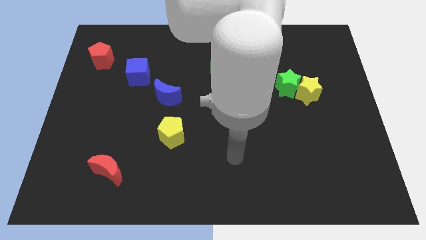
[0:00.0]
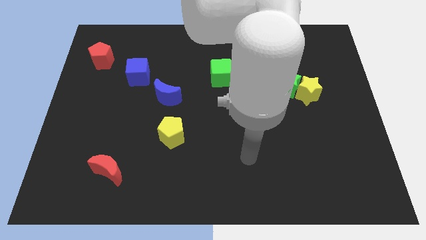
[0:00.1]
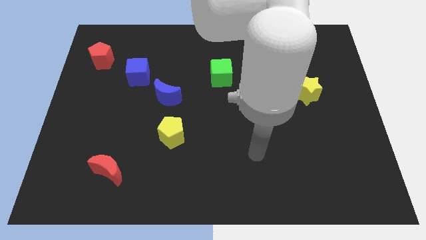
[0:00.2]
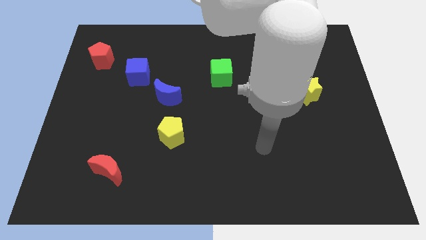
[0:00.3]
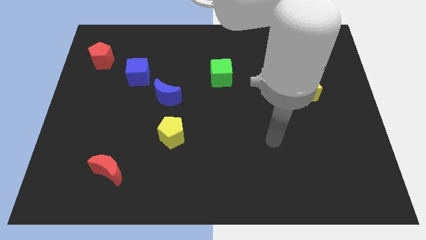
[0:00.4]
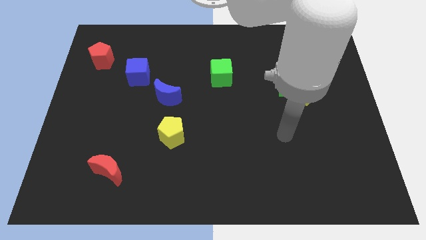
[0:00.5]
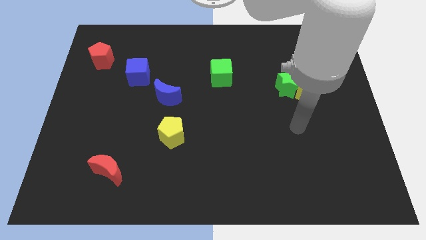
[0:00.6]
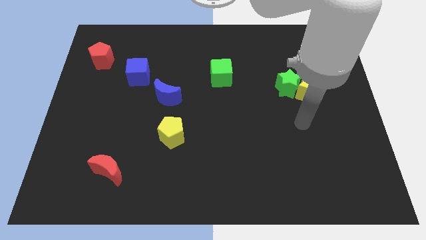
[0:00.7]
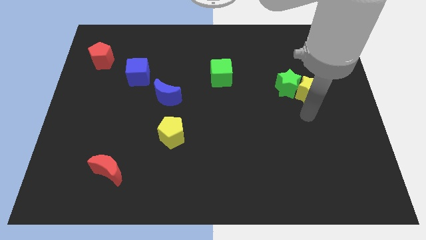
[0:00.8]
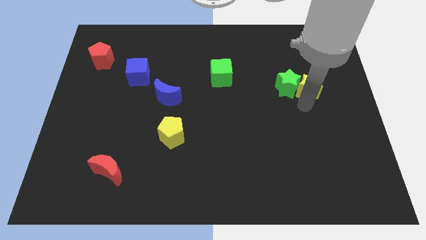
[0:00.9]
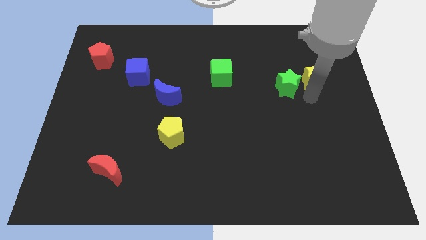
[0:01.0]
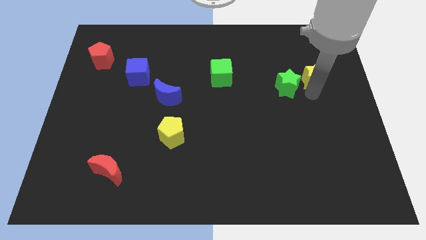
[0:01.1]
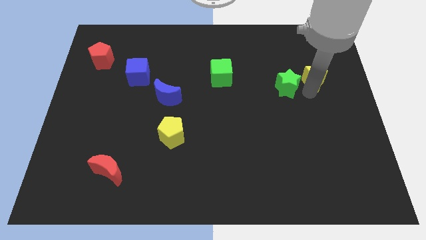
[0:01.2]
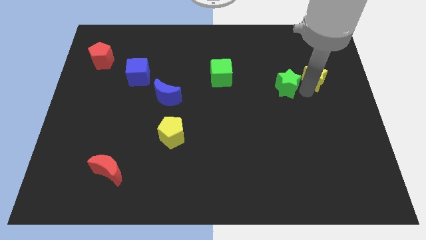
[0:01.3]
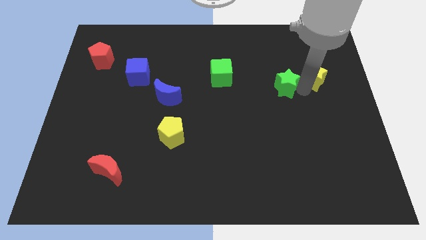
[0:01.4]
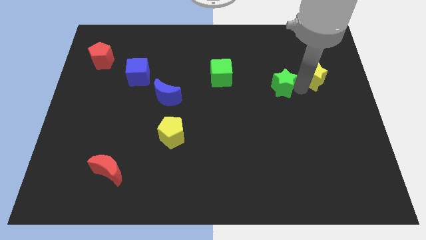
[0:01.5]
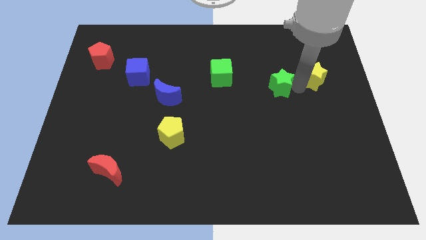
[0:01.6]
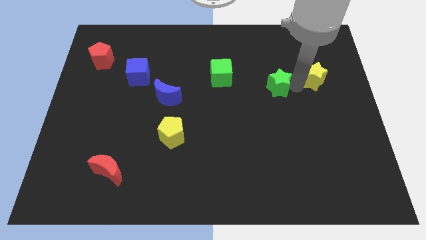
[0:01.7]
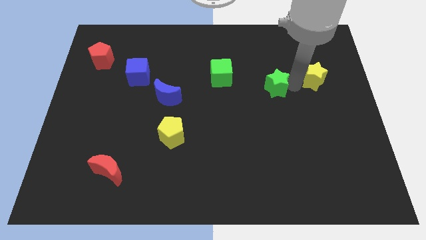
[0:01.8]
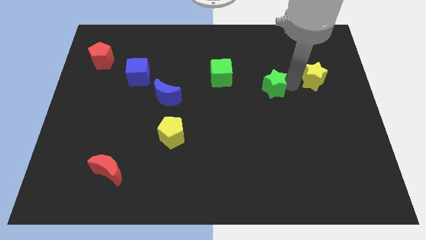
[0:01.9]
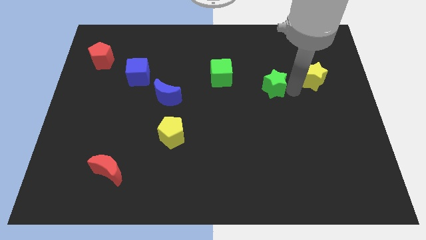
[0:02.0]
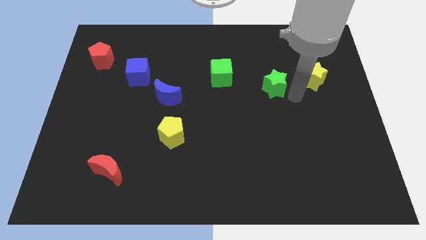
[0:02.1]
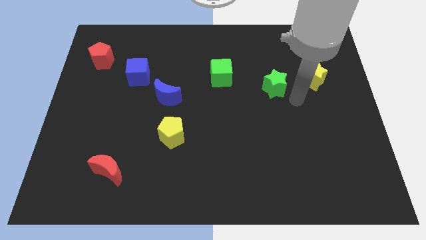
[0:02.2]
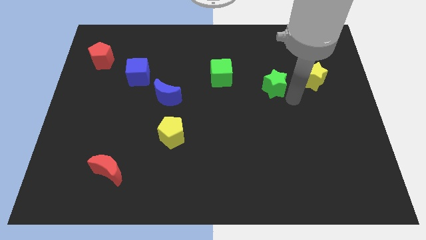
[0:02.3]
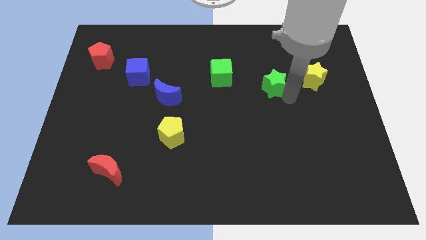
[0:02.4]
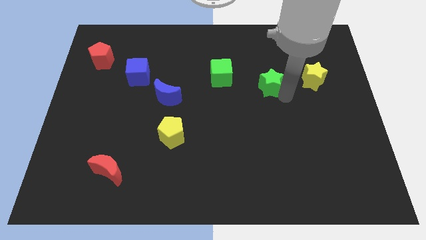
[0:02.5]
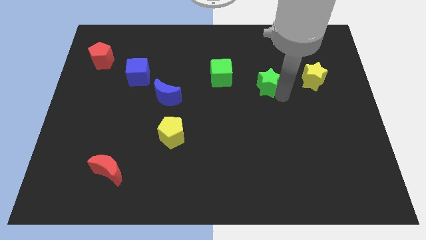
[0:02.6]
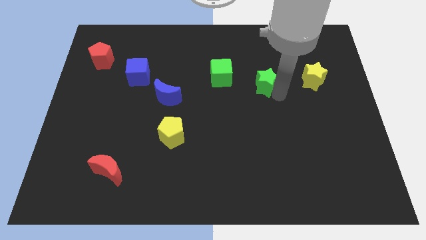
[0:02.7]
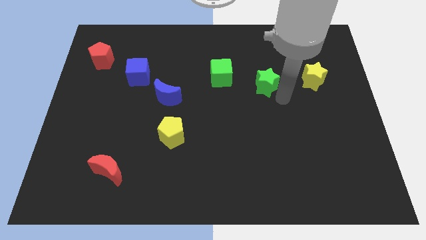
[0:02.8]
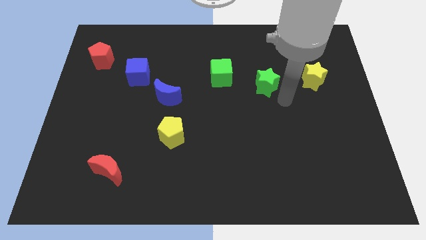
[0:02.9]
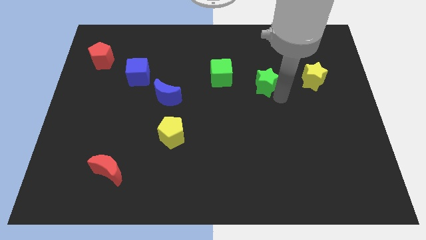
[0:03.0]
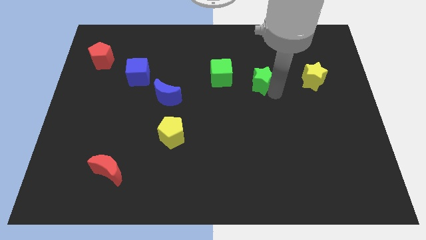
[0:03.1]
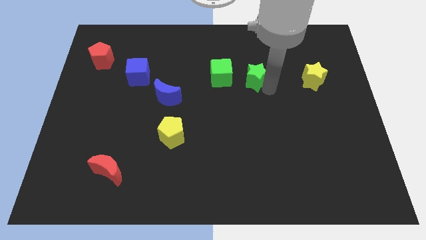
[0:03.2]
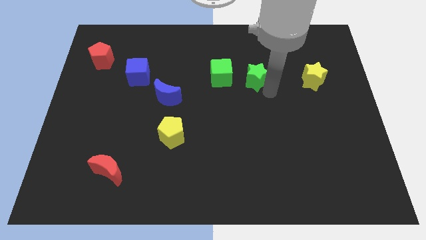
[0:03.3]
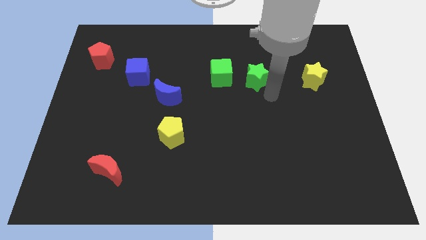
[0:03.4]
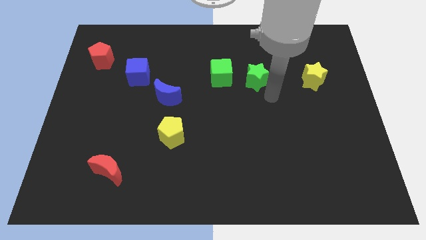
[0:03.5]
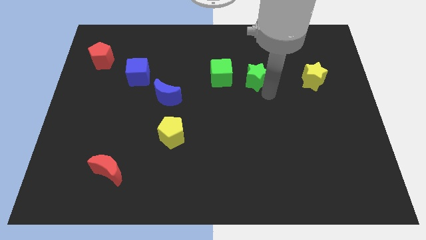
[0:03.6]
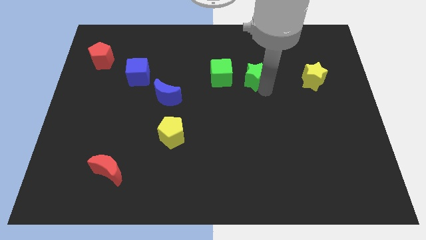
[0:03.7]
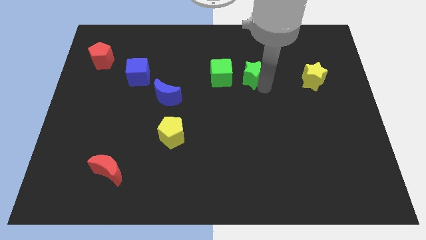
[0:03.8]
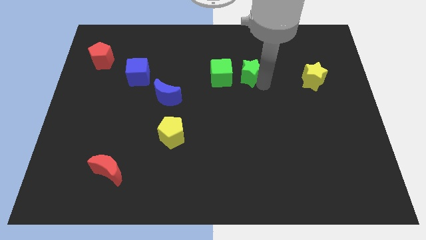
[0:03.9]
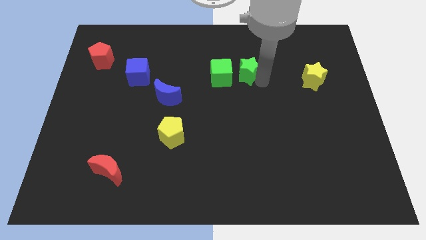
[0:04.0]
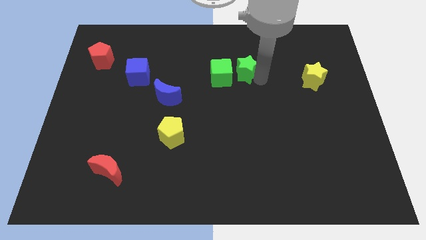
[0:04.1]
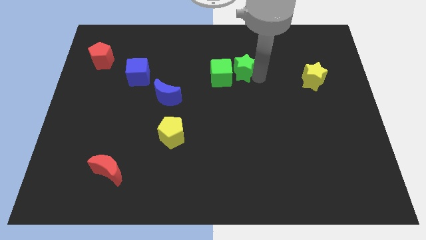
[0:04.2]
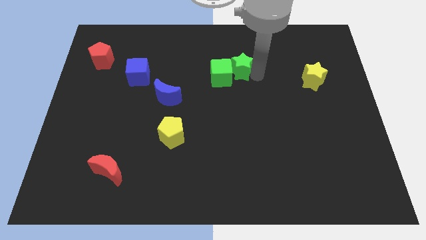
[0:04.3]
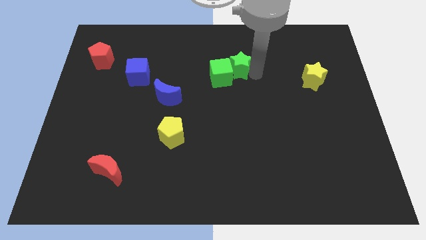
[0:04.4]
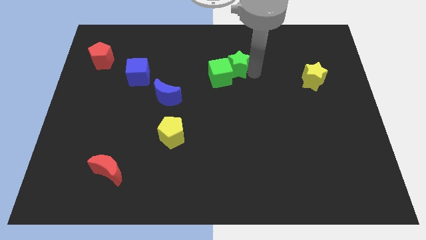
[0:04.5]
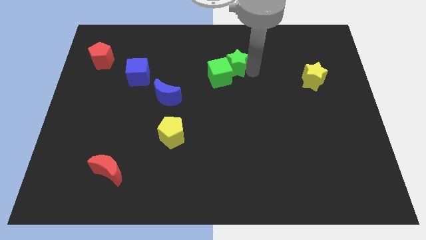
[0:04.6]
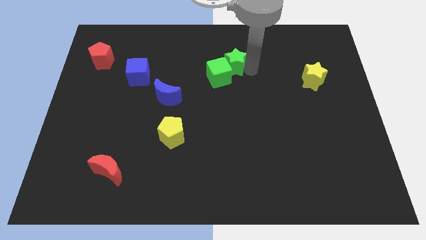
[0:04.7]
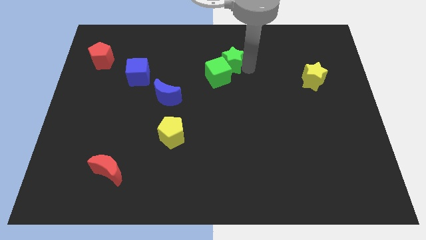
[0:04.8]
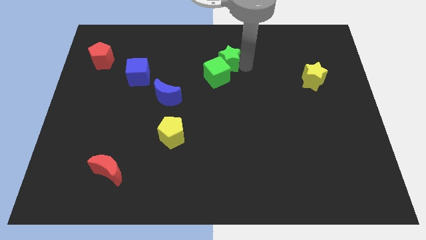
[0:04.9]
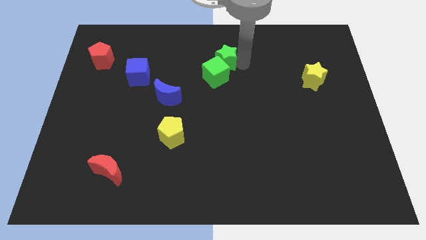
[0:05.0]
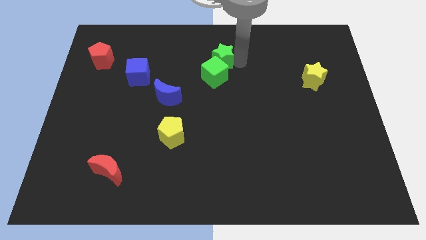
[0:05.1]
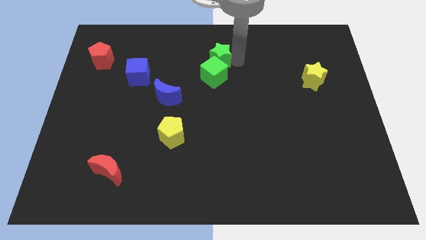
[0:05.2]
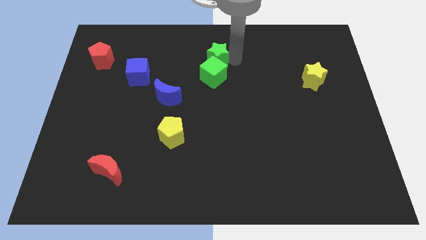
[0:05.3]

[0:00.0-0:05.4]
push the green star to the top left side of the green cube

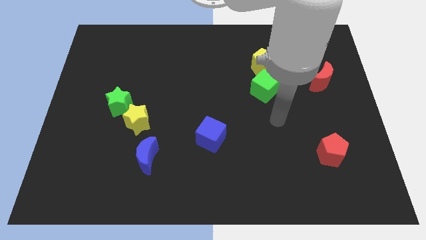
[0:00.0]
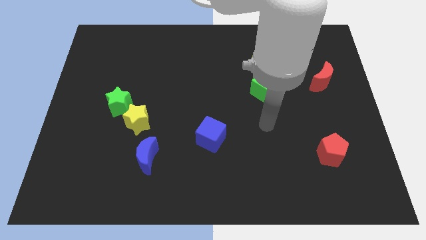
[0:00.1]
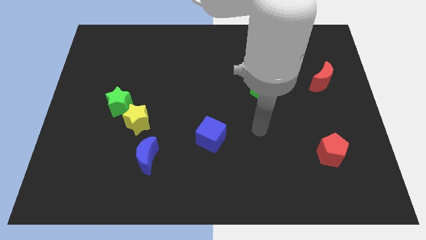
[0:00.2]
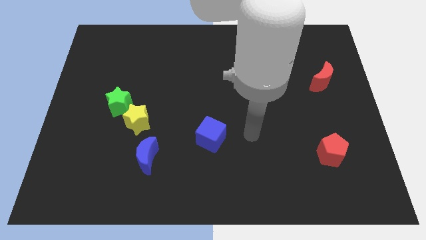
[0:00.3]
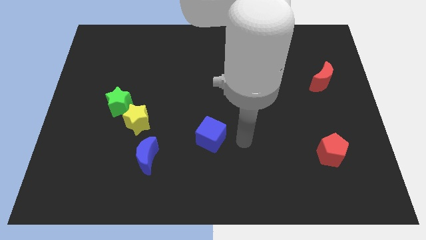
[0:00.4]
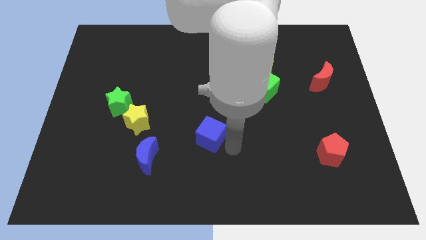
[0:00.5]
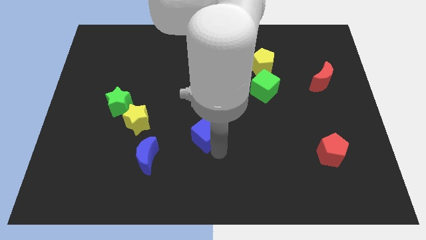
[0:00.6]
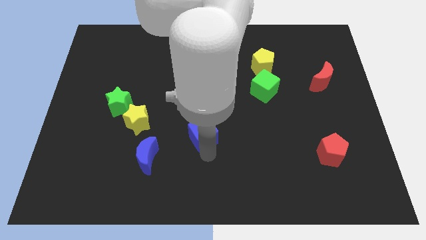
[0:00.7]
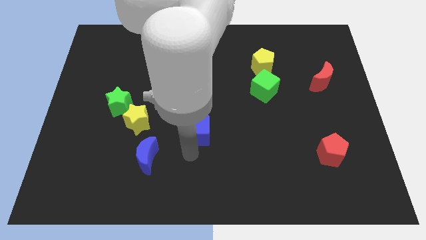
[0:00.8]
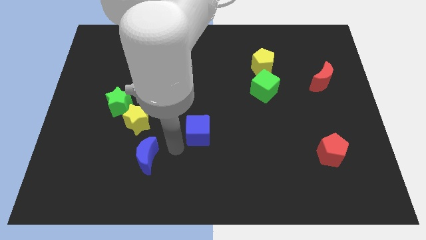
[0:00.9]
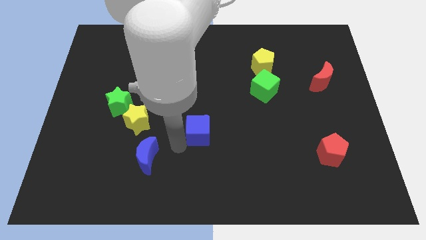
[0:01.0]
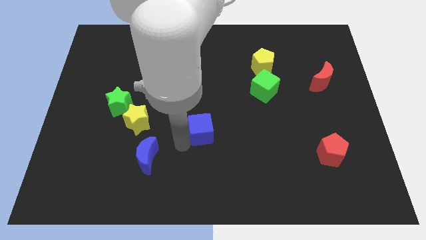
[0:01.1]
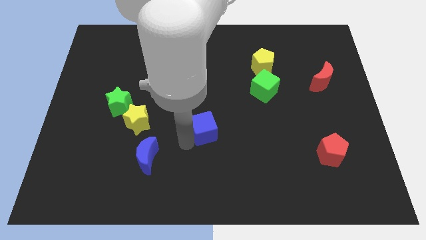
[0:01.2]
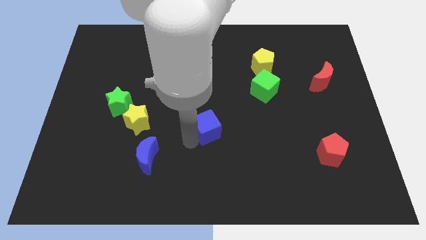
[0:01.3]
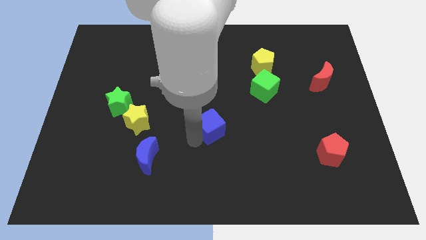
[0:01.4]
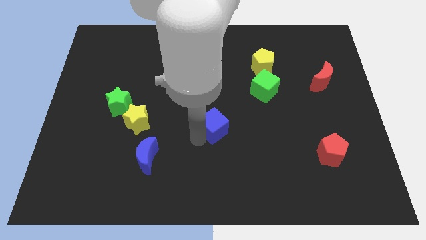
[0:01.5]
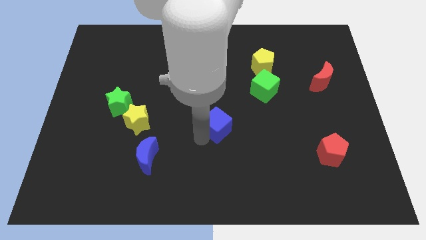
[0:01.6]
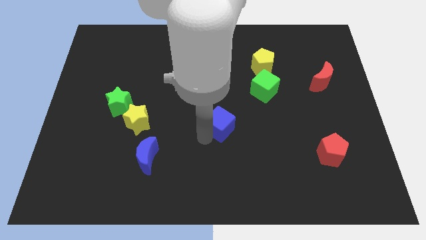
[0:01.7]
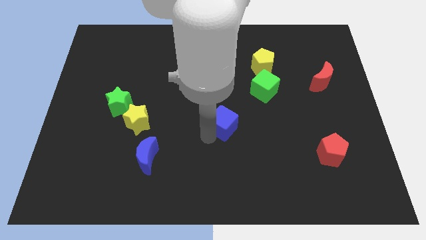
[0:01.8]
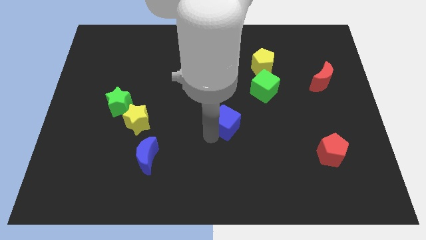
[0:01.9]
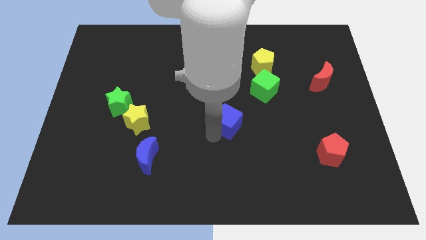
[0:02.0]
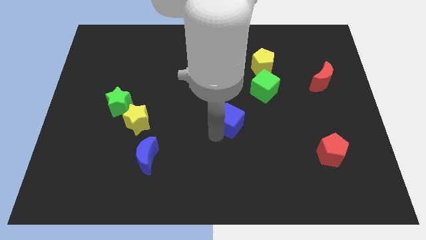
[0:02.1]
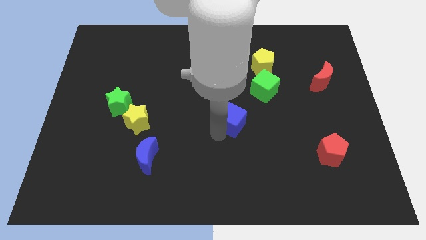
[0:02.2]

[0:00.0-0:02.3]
slide the blue cube diagonally down and to the left of the green cube

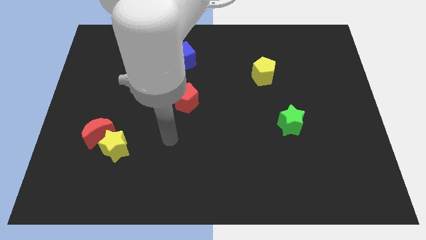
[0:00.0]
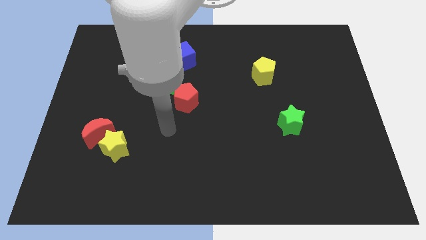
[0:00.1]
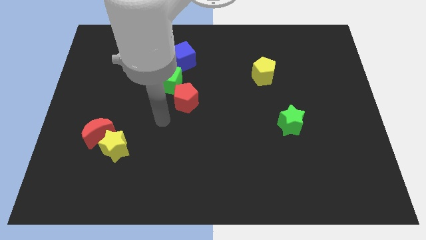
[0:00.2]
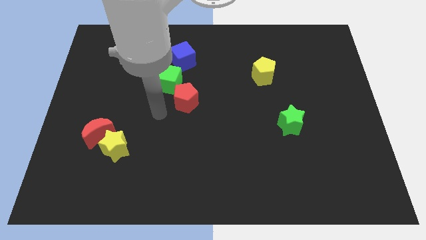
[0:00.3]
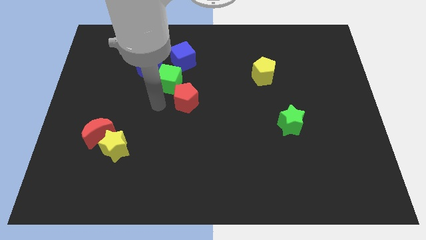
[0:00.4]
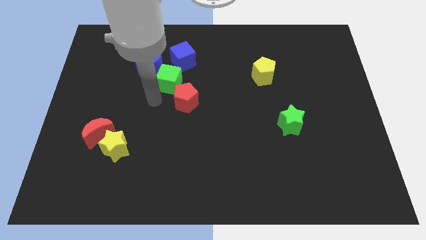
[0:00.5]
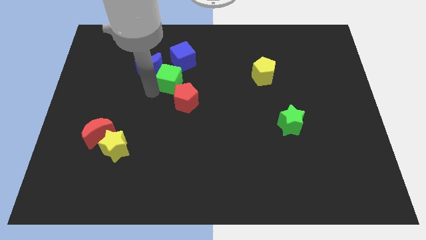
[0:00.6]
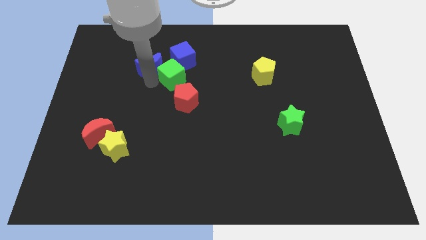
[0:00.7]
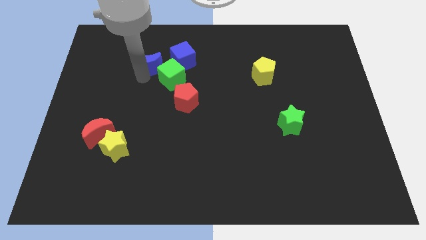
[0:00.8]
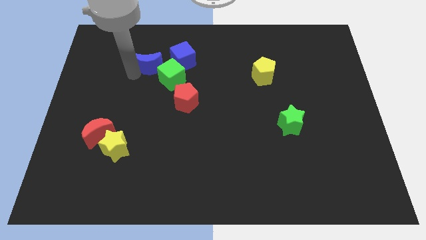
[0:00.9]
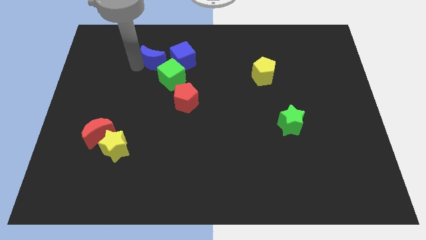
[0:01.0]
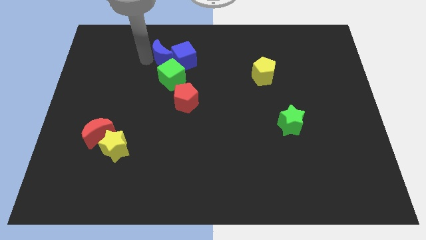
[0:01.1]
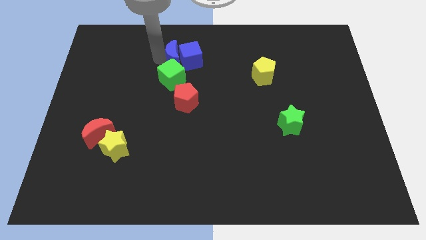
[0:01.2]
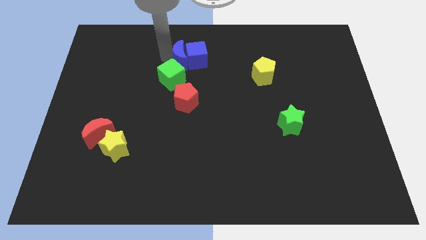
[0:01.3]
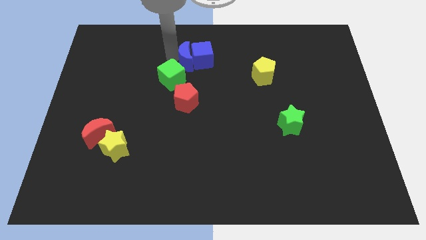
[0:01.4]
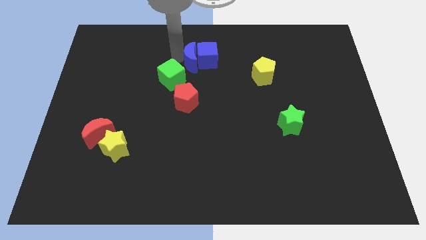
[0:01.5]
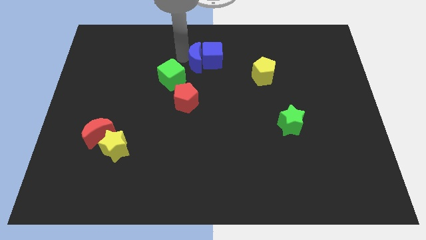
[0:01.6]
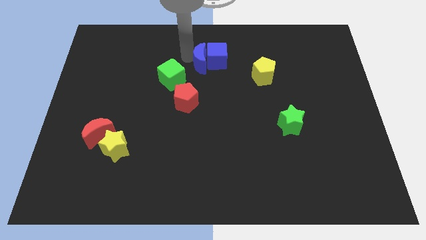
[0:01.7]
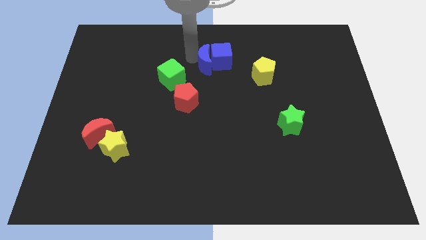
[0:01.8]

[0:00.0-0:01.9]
push the blue cube to the top left side of the yellow pentagon
